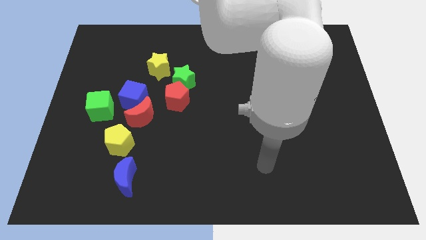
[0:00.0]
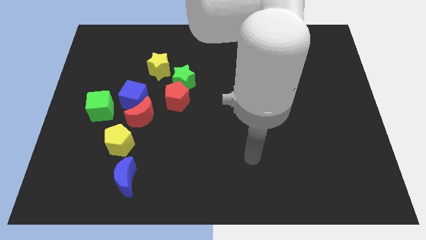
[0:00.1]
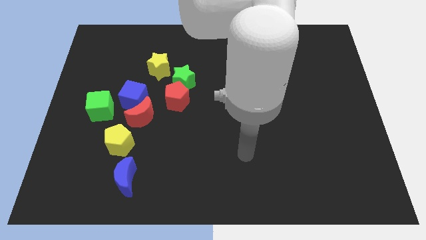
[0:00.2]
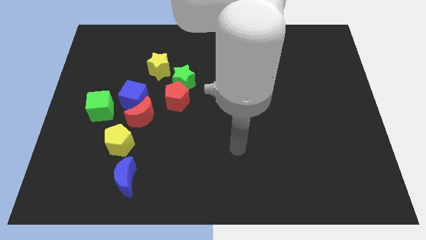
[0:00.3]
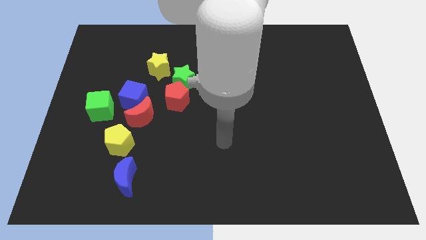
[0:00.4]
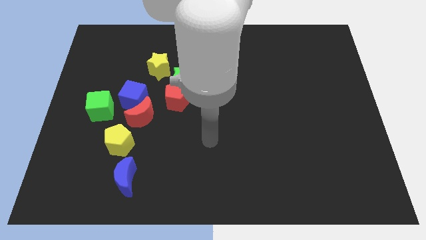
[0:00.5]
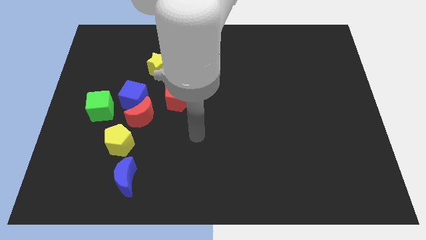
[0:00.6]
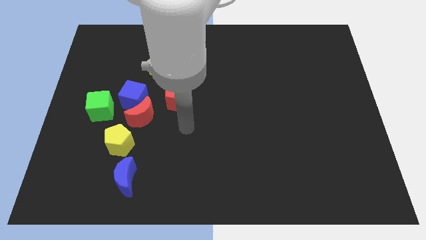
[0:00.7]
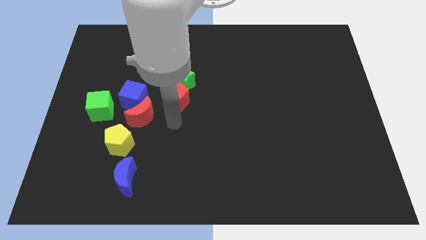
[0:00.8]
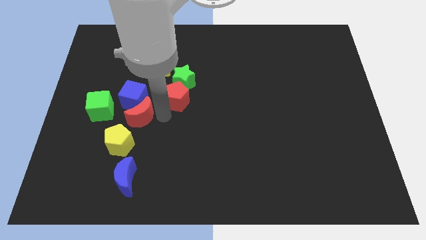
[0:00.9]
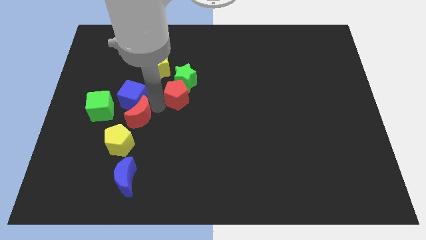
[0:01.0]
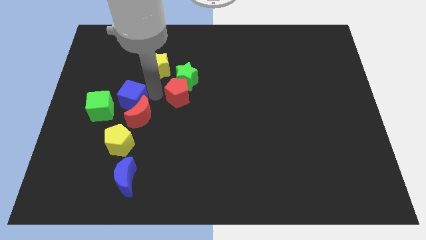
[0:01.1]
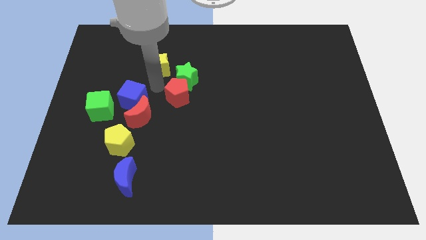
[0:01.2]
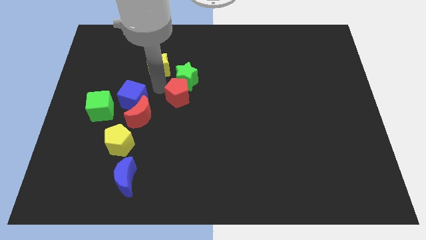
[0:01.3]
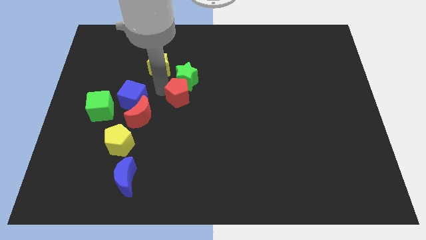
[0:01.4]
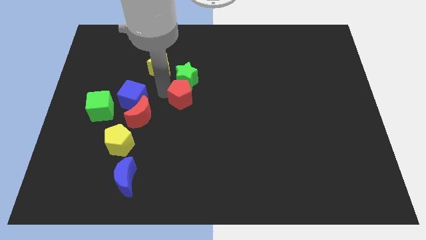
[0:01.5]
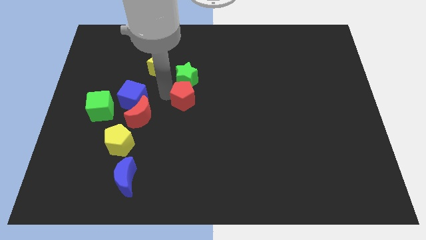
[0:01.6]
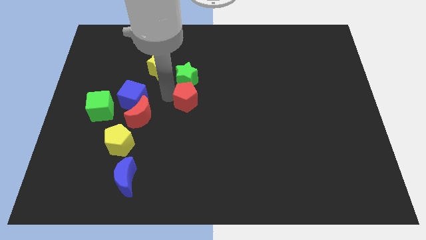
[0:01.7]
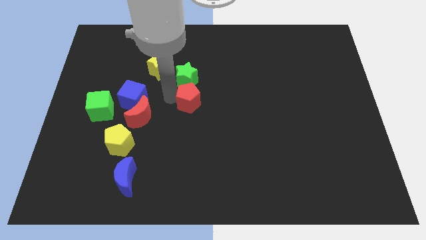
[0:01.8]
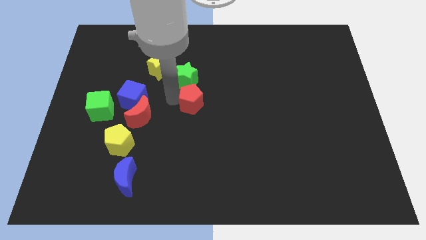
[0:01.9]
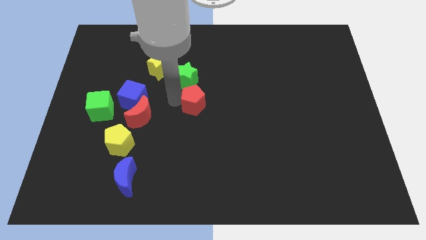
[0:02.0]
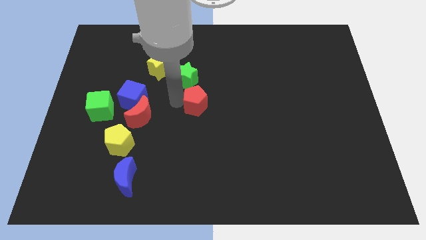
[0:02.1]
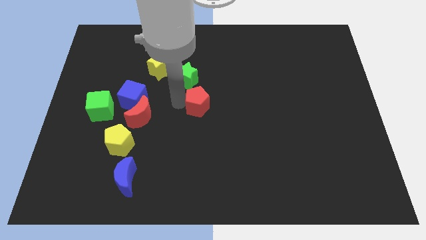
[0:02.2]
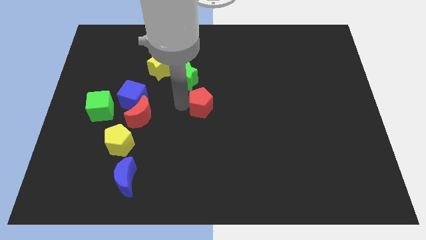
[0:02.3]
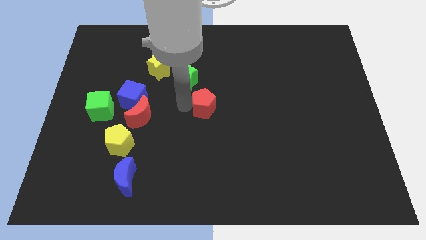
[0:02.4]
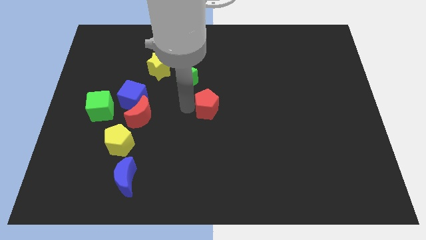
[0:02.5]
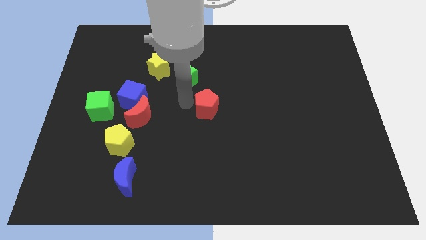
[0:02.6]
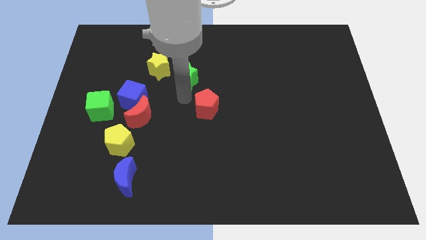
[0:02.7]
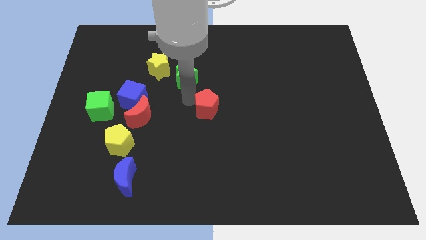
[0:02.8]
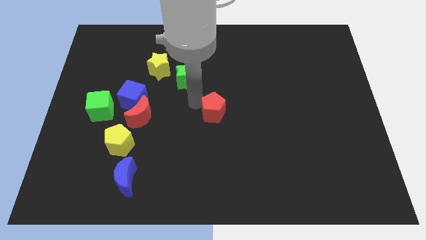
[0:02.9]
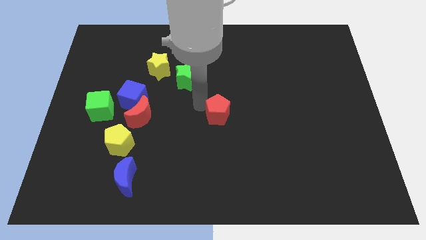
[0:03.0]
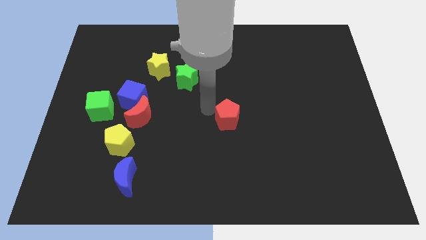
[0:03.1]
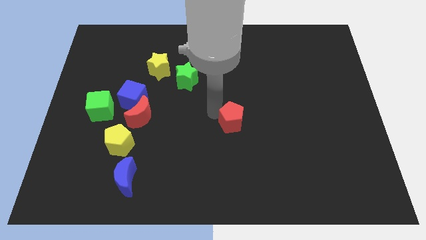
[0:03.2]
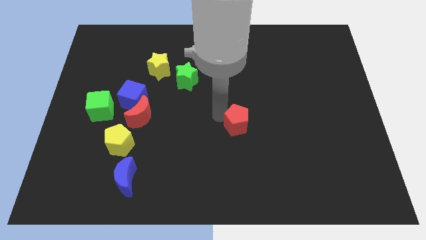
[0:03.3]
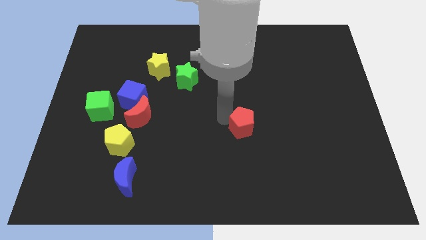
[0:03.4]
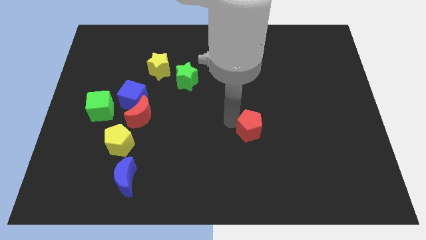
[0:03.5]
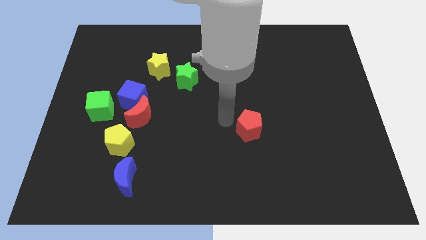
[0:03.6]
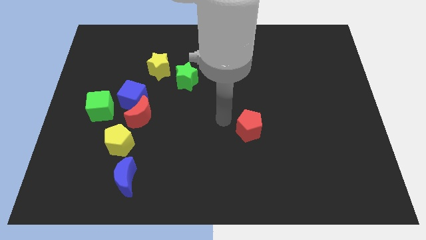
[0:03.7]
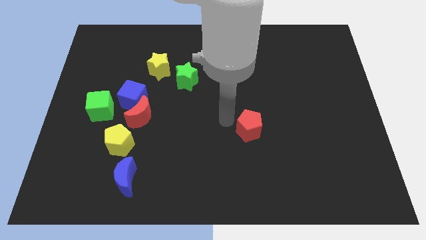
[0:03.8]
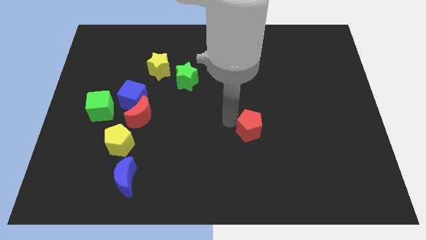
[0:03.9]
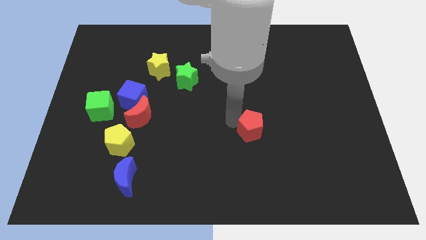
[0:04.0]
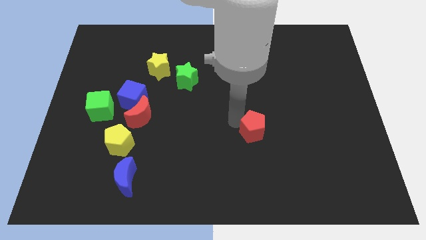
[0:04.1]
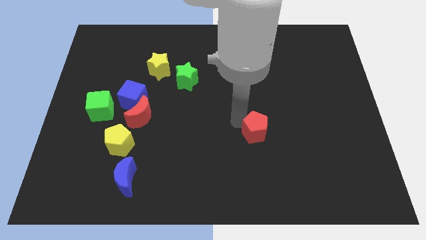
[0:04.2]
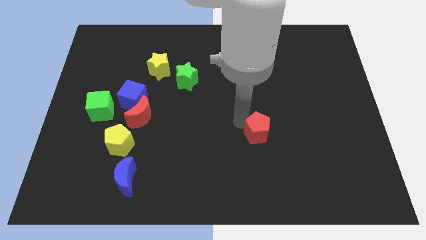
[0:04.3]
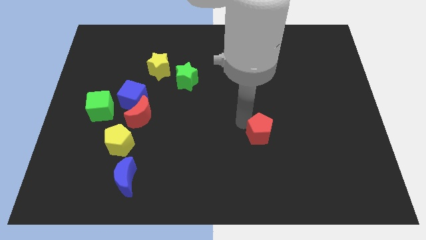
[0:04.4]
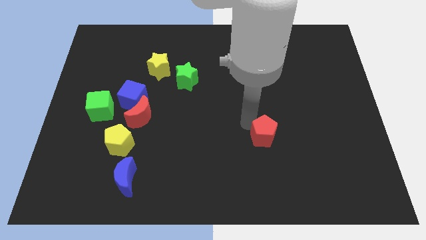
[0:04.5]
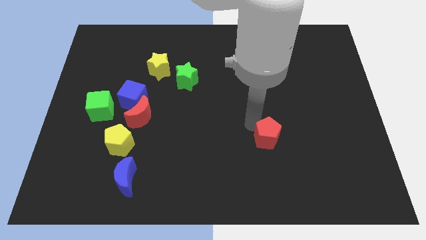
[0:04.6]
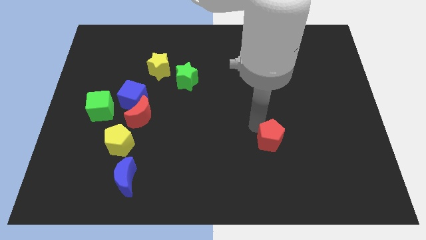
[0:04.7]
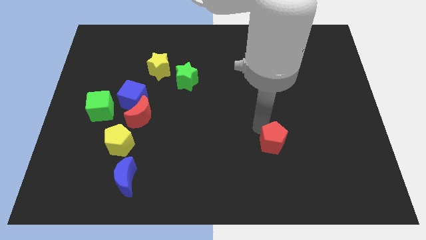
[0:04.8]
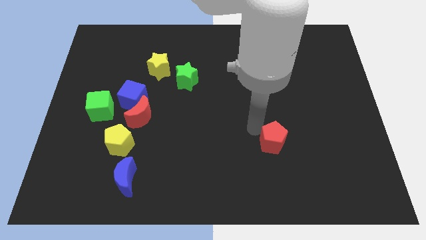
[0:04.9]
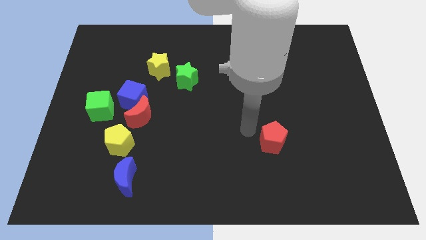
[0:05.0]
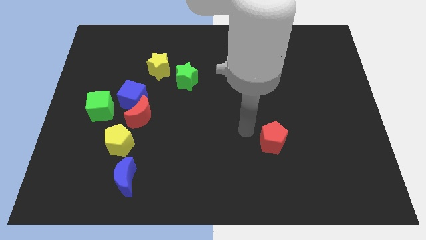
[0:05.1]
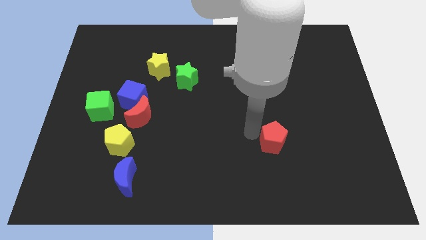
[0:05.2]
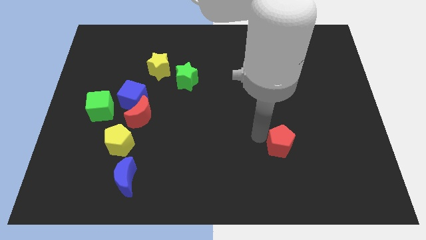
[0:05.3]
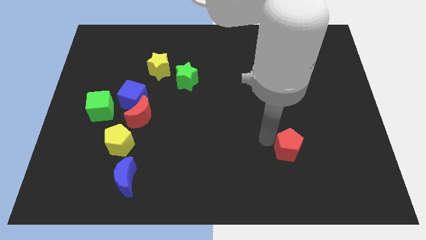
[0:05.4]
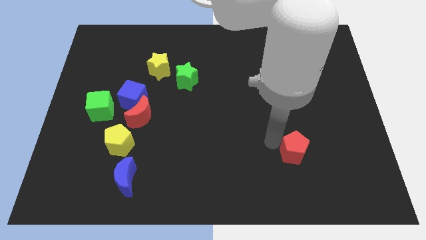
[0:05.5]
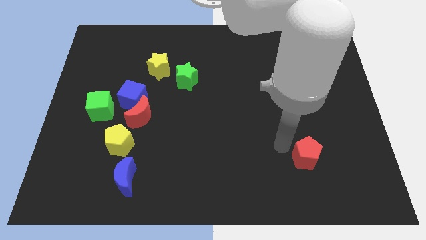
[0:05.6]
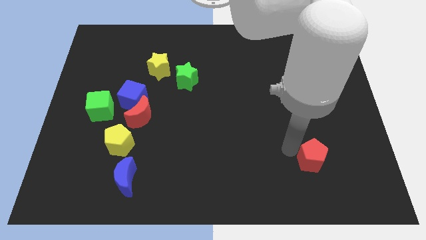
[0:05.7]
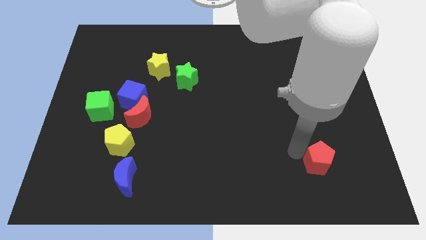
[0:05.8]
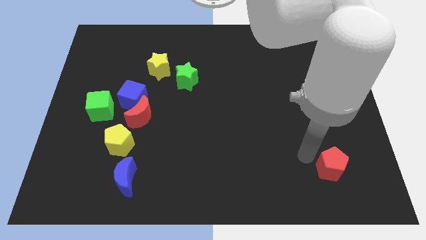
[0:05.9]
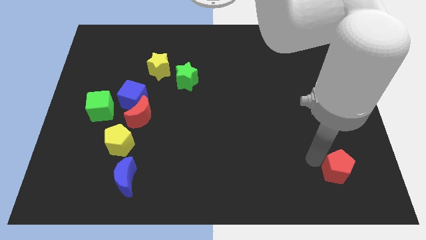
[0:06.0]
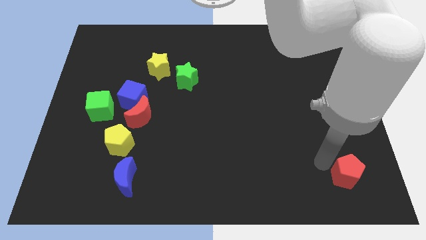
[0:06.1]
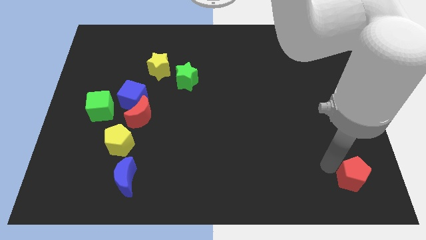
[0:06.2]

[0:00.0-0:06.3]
move the red pentagon to the bottom right corner

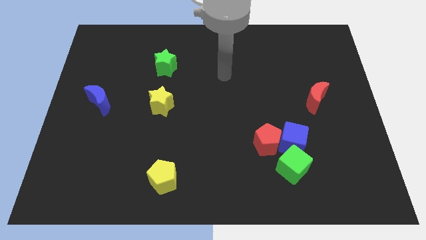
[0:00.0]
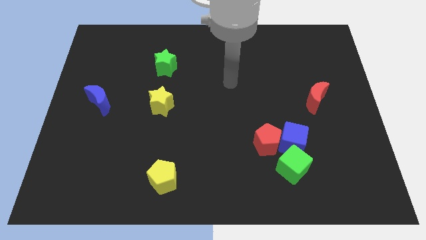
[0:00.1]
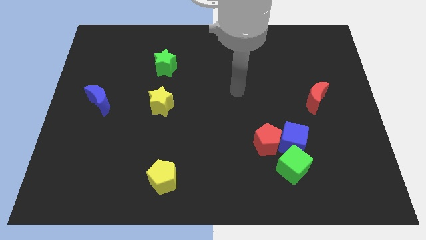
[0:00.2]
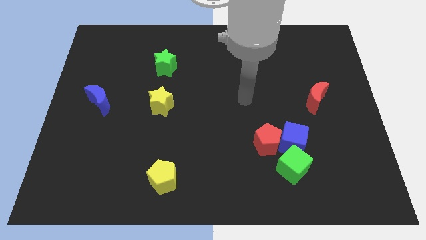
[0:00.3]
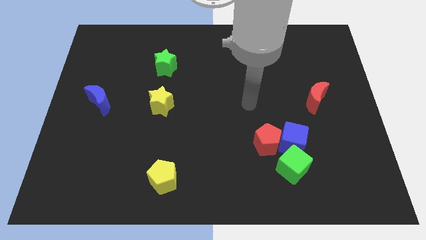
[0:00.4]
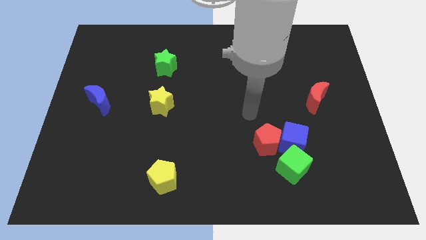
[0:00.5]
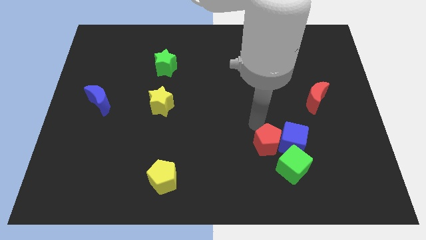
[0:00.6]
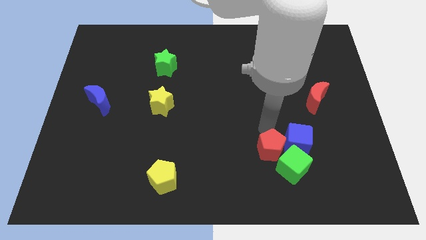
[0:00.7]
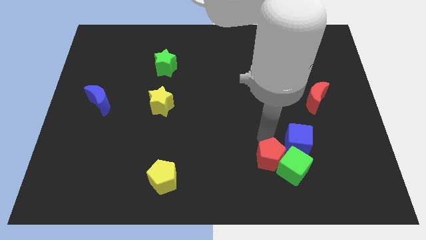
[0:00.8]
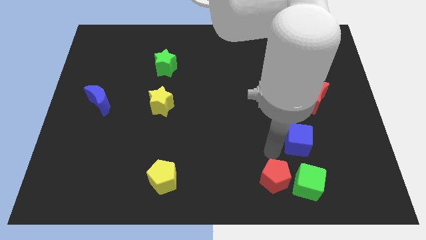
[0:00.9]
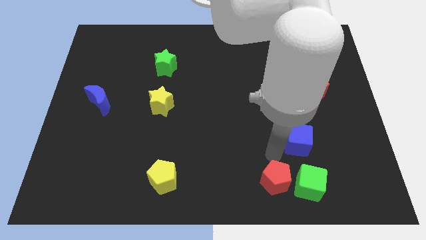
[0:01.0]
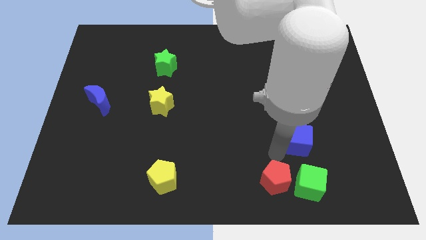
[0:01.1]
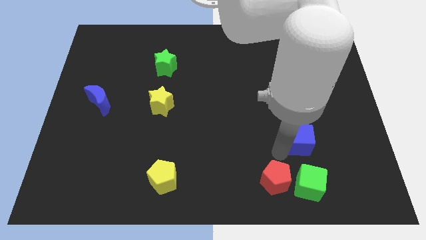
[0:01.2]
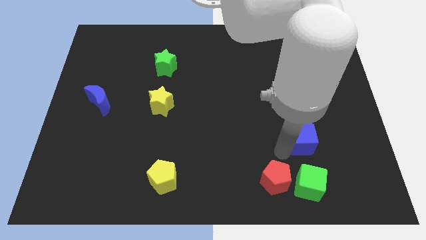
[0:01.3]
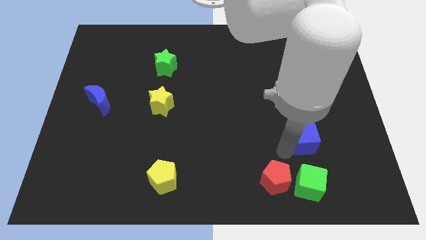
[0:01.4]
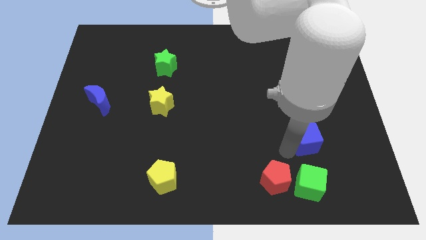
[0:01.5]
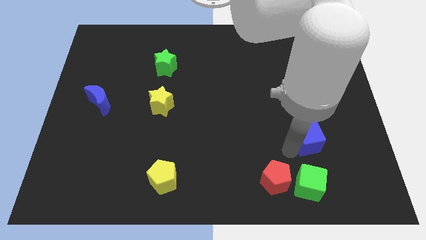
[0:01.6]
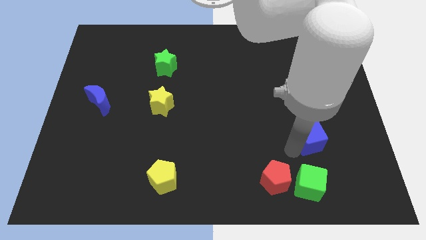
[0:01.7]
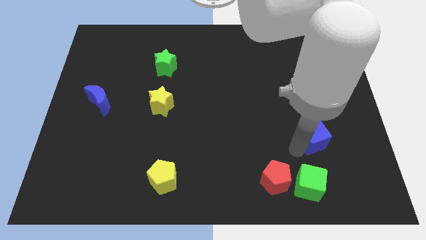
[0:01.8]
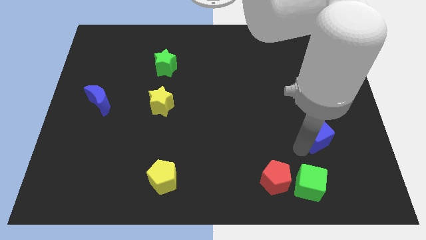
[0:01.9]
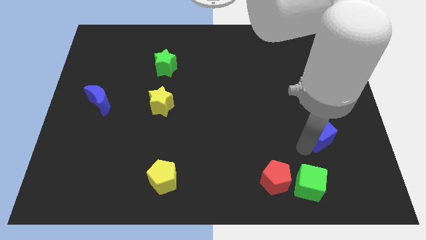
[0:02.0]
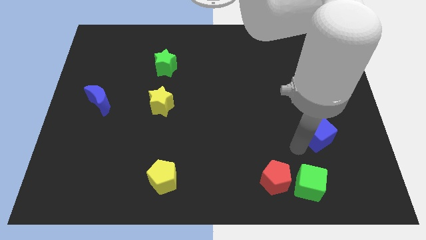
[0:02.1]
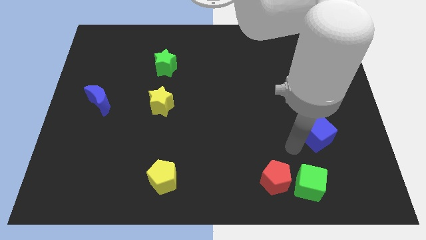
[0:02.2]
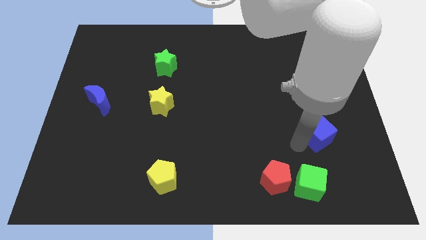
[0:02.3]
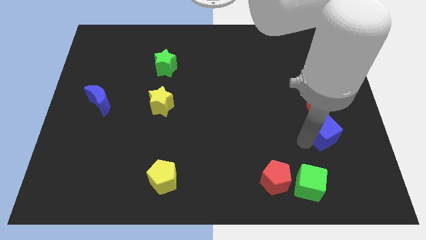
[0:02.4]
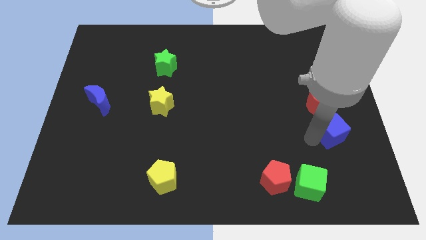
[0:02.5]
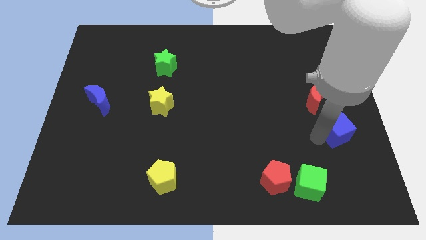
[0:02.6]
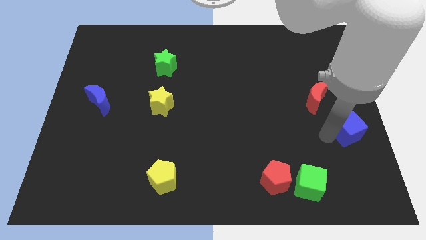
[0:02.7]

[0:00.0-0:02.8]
slide the blue cube to the right side
